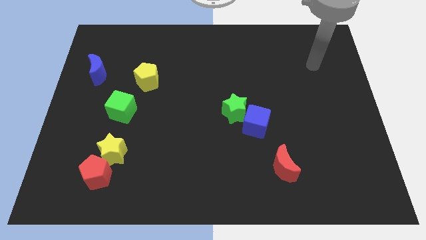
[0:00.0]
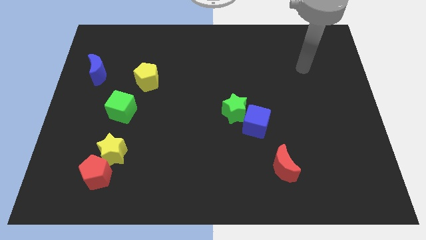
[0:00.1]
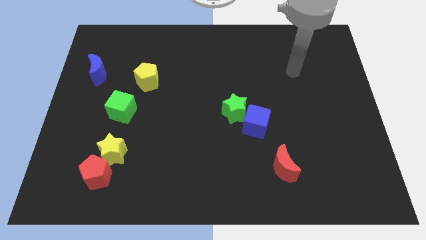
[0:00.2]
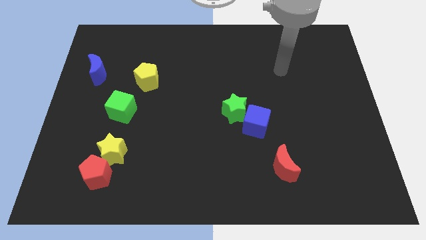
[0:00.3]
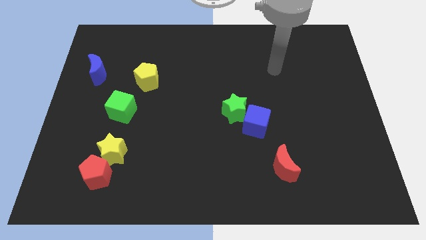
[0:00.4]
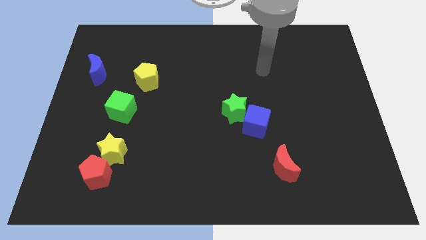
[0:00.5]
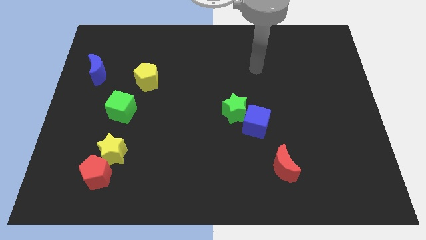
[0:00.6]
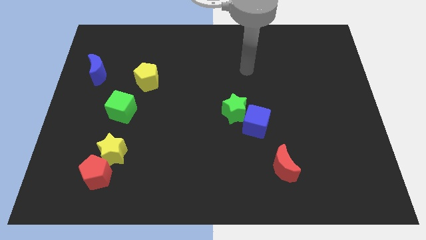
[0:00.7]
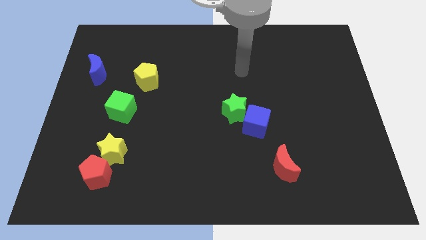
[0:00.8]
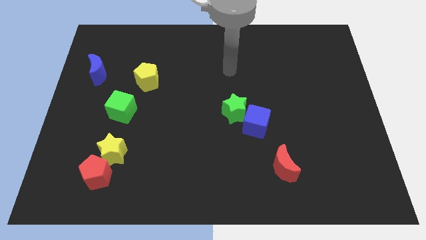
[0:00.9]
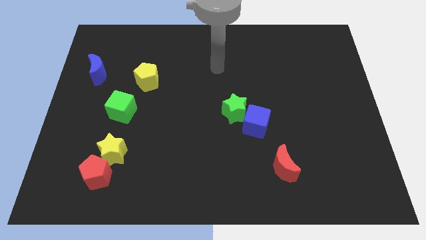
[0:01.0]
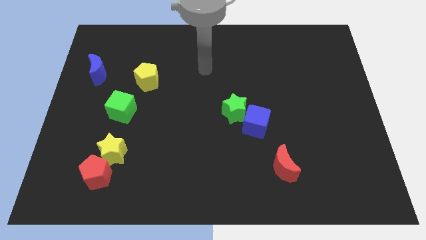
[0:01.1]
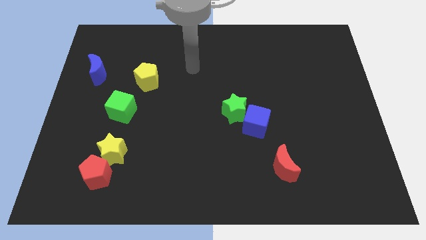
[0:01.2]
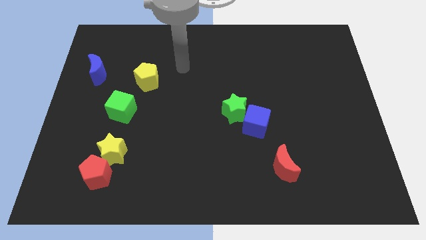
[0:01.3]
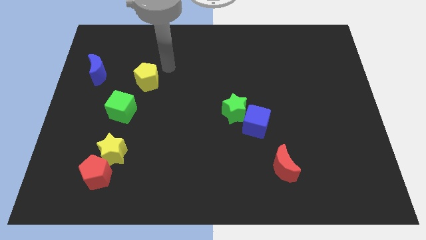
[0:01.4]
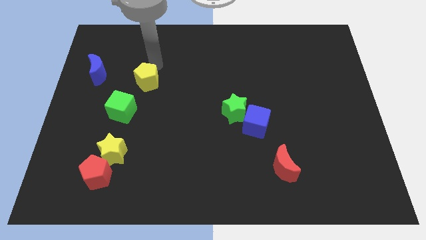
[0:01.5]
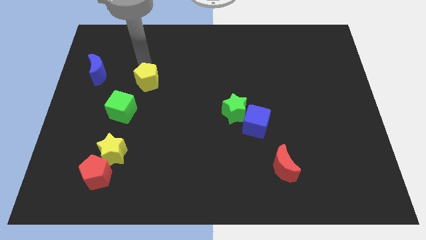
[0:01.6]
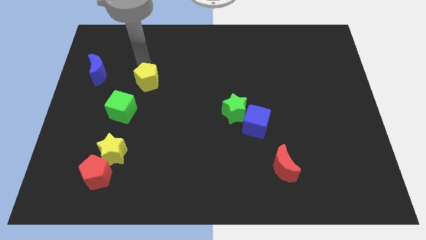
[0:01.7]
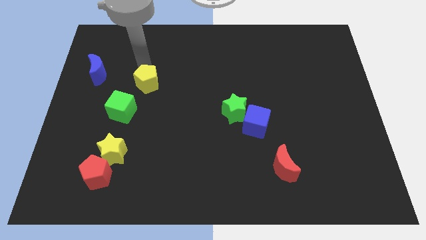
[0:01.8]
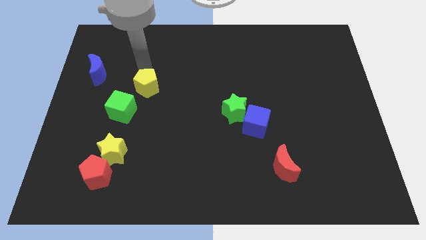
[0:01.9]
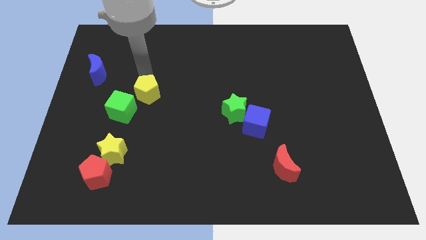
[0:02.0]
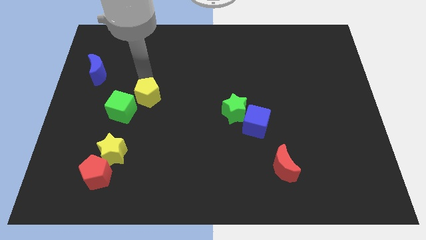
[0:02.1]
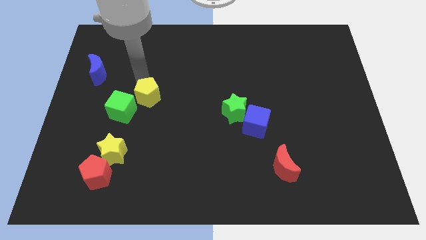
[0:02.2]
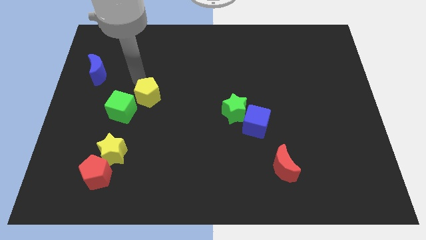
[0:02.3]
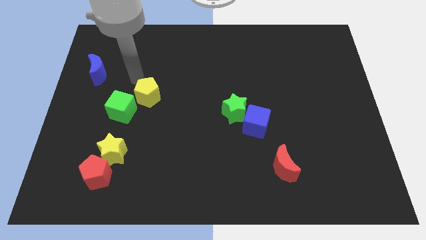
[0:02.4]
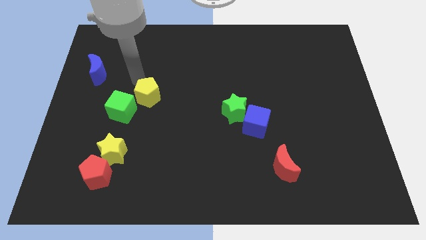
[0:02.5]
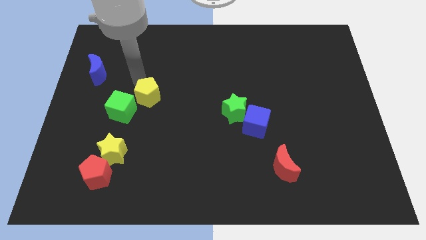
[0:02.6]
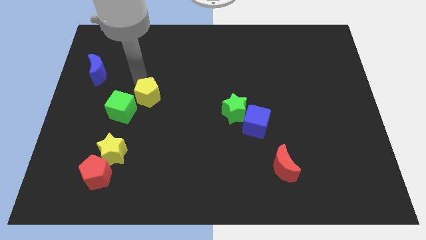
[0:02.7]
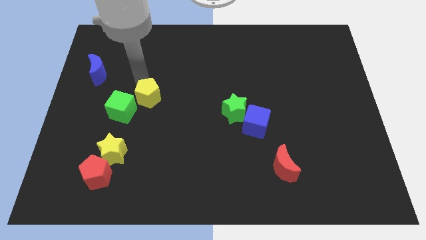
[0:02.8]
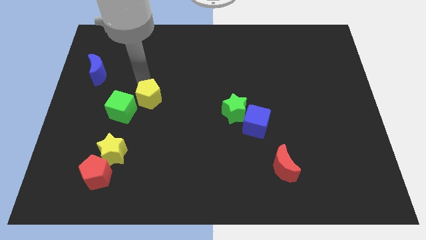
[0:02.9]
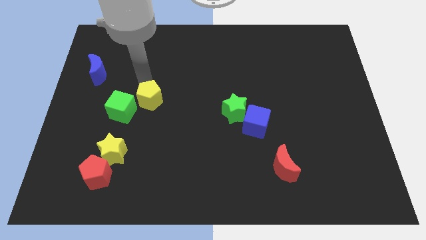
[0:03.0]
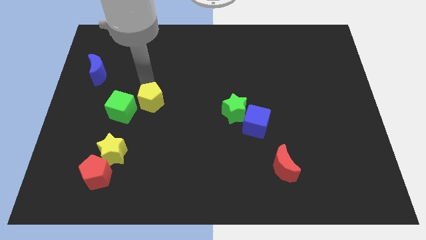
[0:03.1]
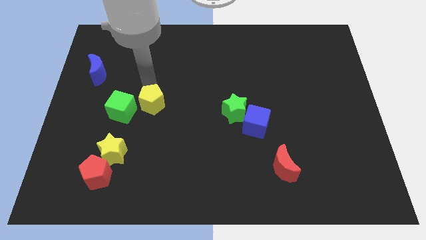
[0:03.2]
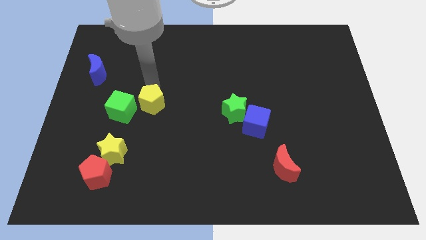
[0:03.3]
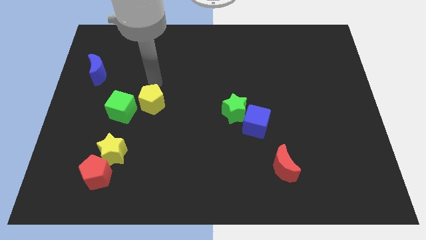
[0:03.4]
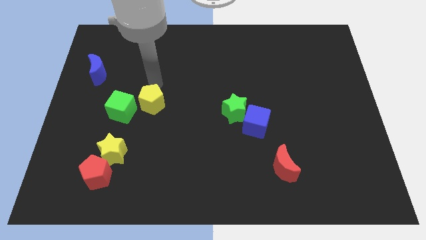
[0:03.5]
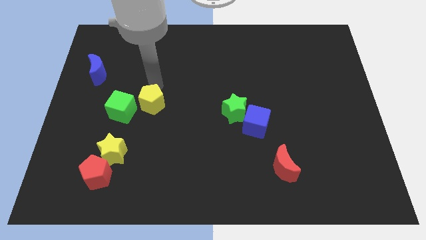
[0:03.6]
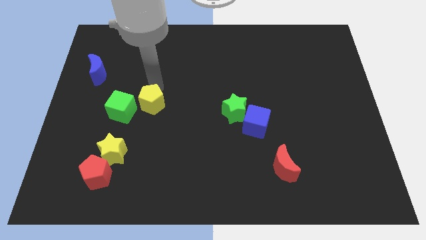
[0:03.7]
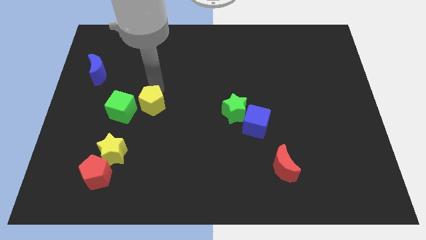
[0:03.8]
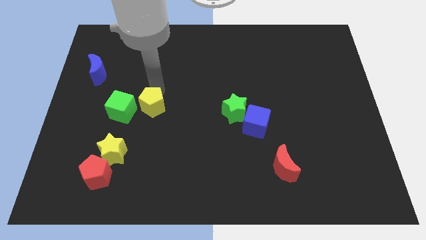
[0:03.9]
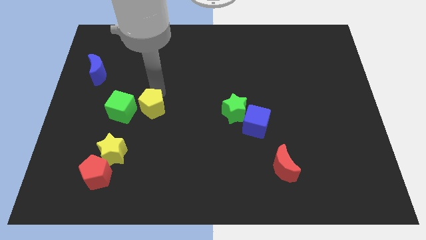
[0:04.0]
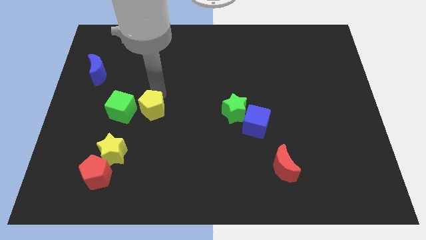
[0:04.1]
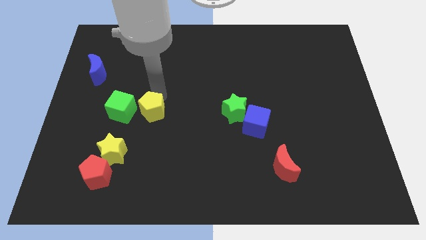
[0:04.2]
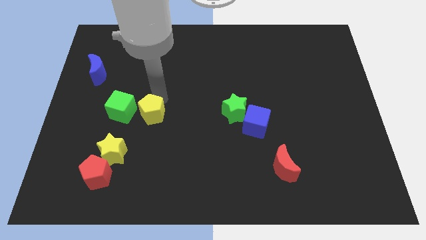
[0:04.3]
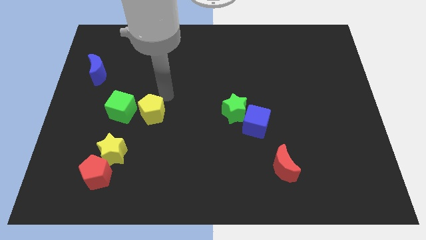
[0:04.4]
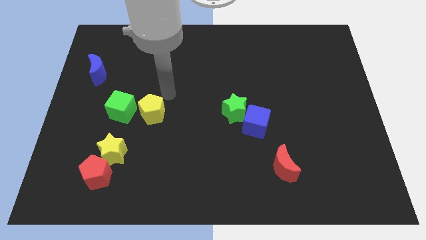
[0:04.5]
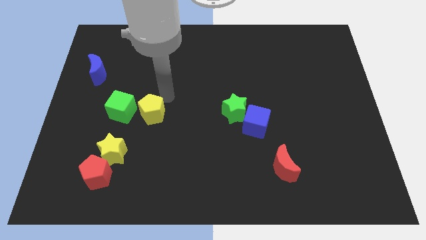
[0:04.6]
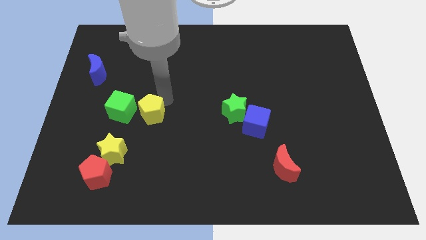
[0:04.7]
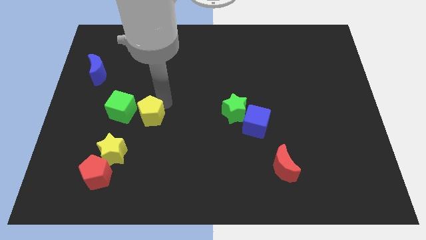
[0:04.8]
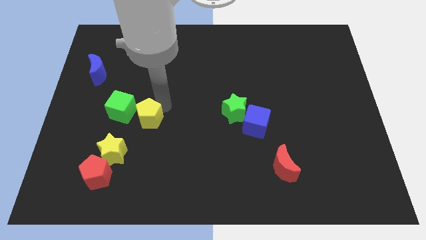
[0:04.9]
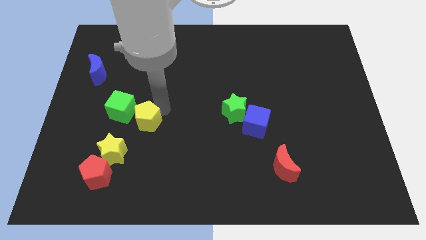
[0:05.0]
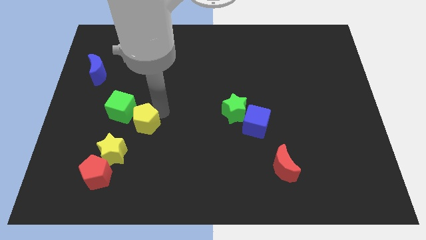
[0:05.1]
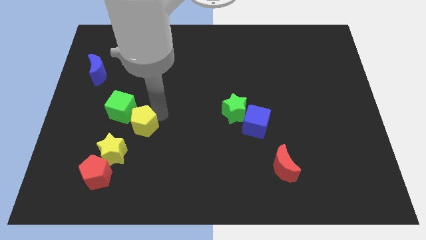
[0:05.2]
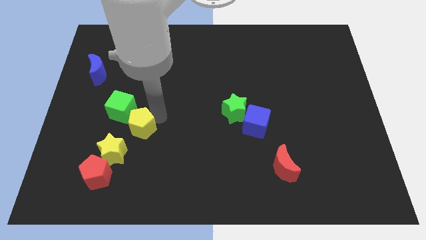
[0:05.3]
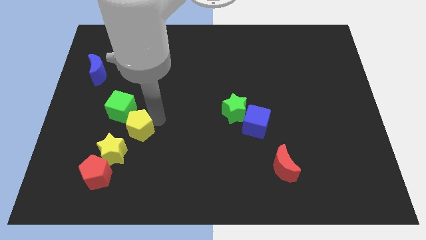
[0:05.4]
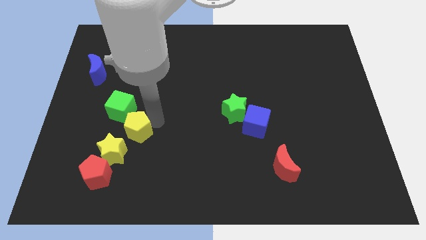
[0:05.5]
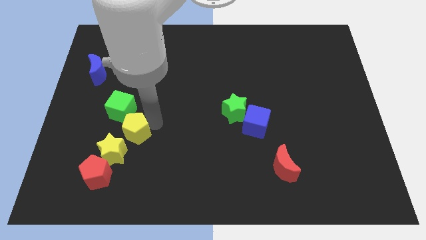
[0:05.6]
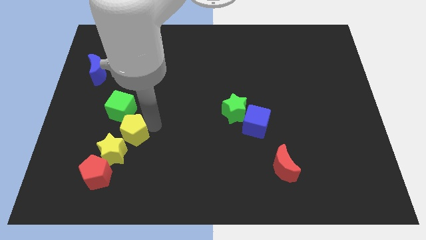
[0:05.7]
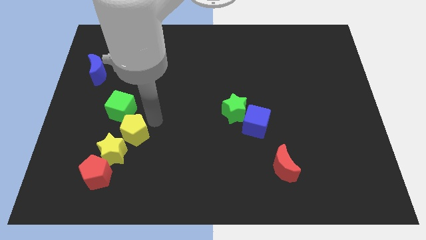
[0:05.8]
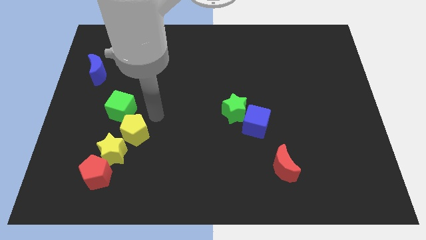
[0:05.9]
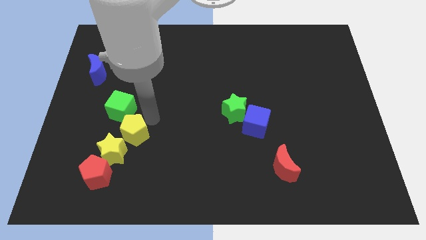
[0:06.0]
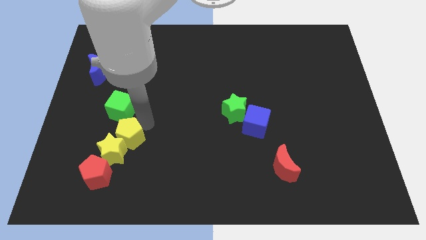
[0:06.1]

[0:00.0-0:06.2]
move the yellow pentagon next to the yellow star

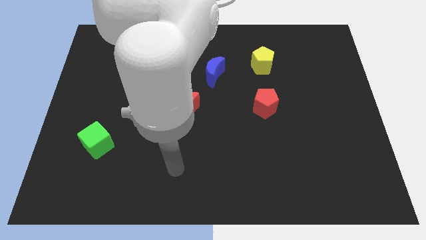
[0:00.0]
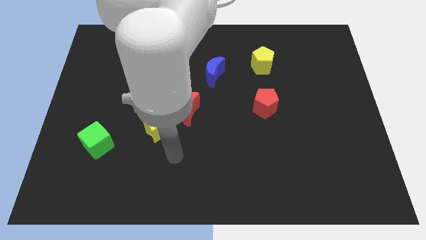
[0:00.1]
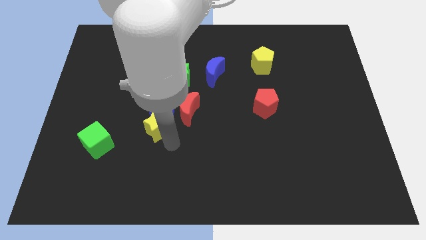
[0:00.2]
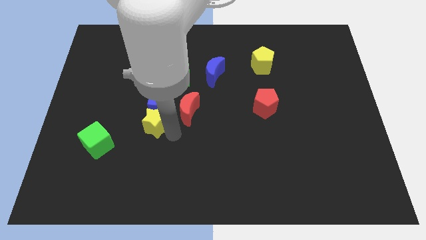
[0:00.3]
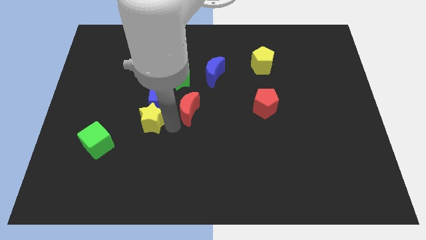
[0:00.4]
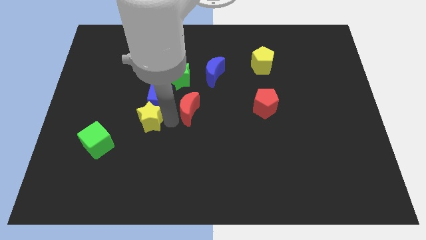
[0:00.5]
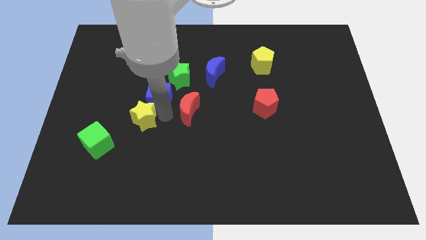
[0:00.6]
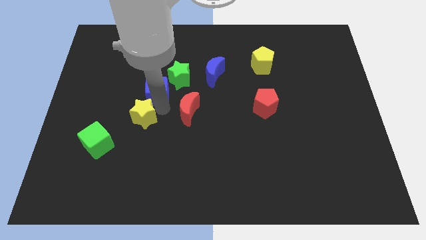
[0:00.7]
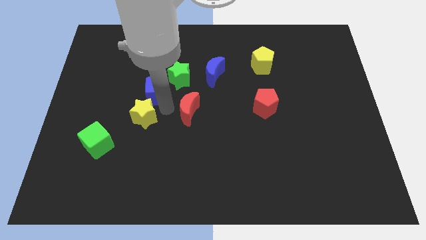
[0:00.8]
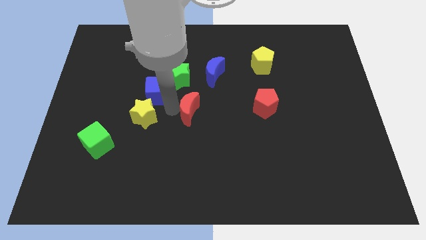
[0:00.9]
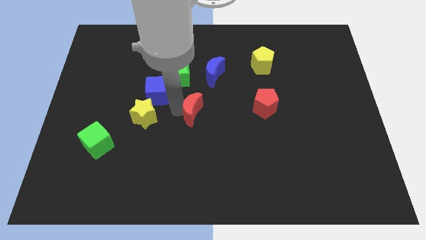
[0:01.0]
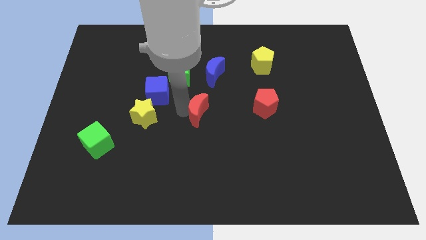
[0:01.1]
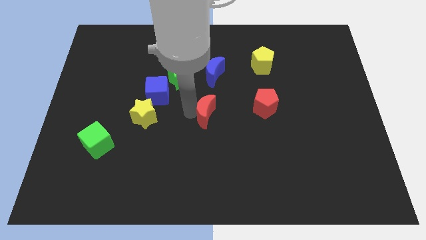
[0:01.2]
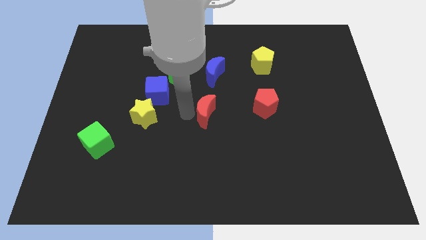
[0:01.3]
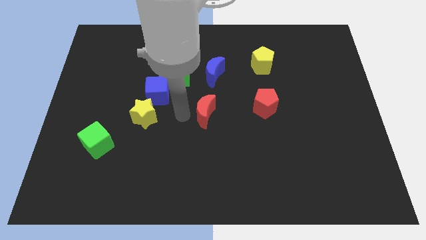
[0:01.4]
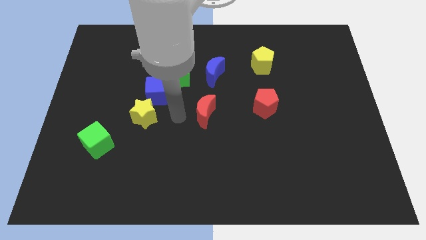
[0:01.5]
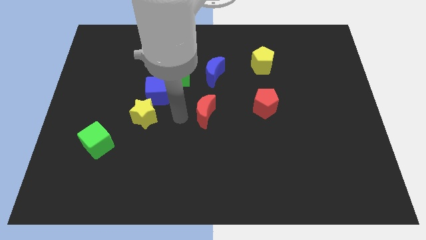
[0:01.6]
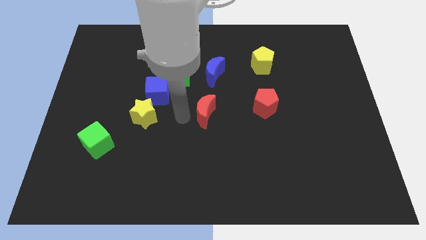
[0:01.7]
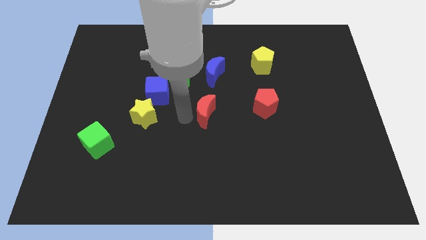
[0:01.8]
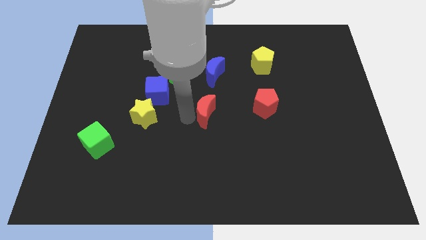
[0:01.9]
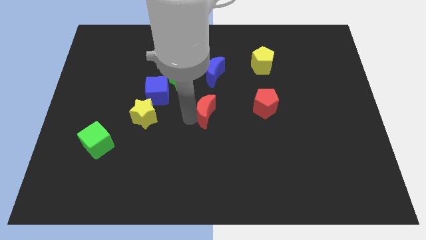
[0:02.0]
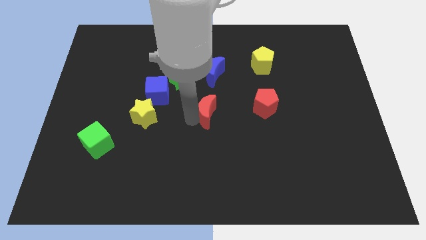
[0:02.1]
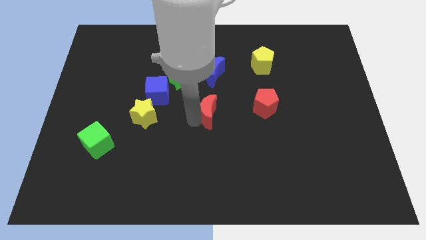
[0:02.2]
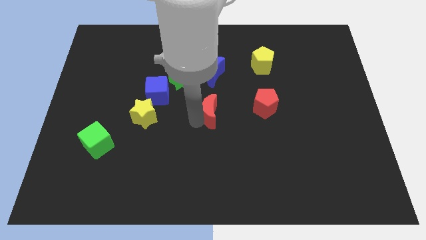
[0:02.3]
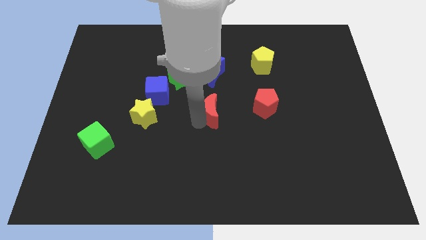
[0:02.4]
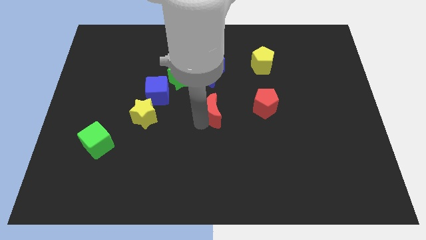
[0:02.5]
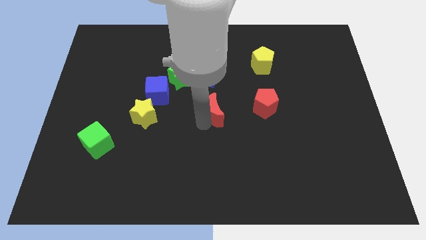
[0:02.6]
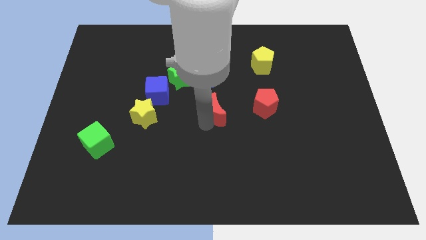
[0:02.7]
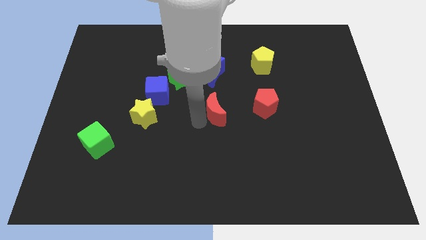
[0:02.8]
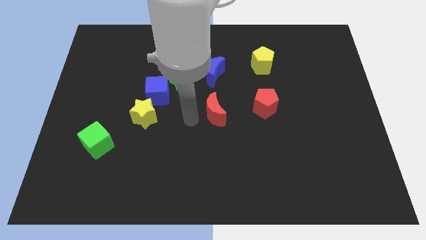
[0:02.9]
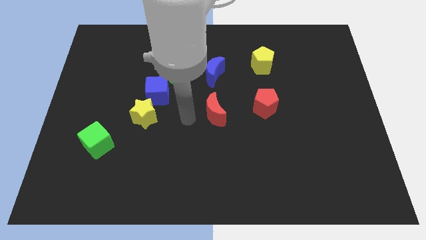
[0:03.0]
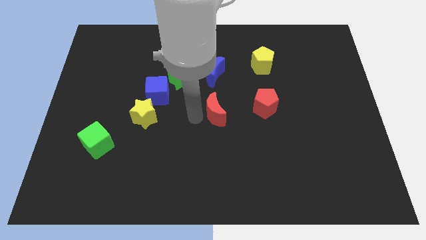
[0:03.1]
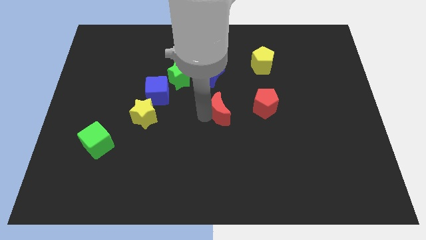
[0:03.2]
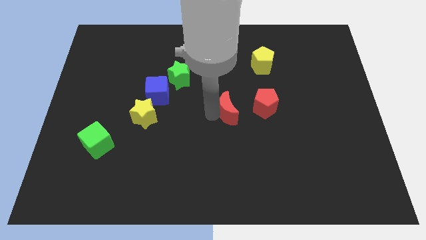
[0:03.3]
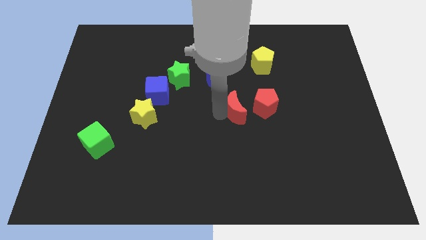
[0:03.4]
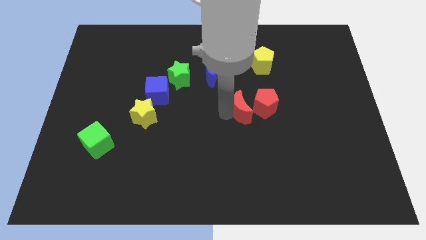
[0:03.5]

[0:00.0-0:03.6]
slide the red moon towards the red pentagon
